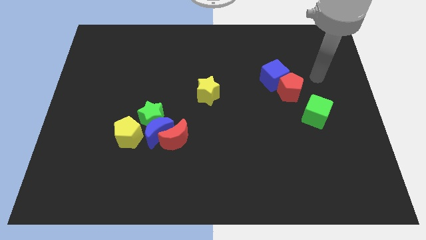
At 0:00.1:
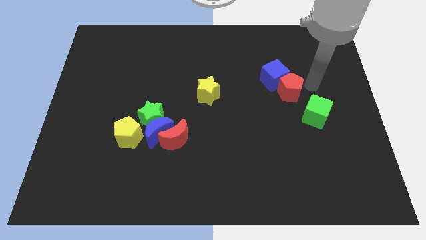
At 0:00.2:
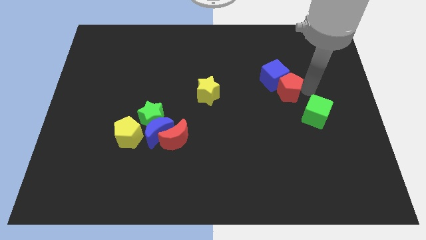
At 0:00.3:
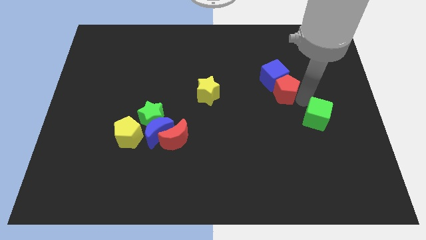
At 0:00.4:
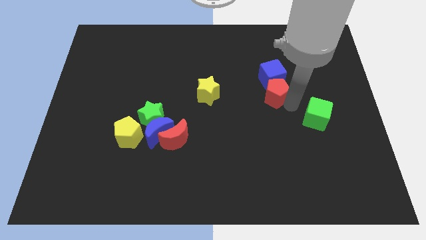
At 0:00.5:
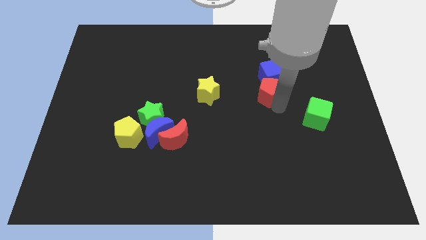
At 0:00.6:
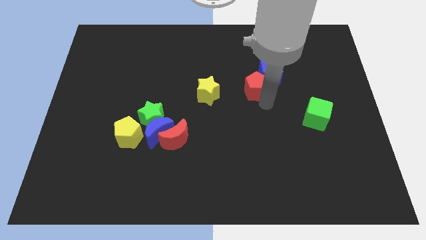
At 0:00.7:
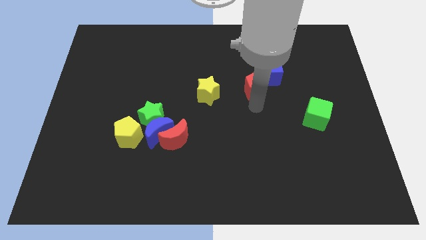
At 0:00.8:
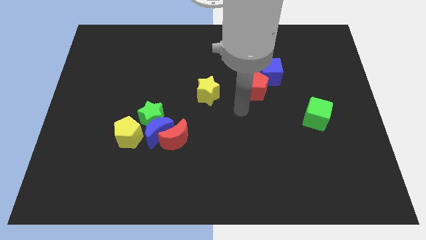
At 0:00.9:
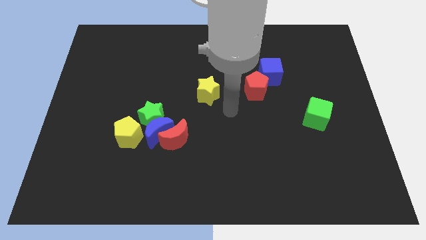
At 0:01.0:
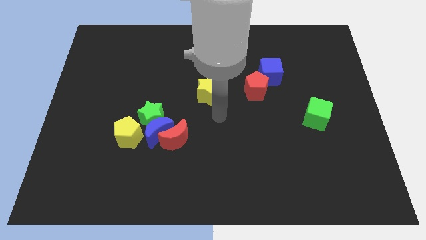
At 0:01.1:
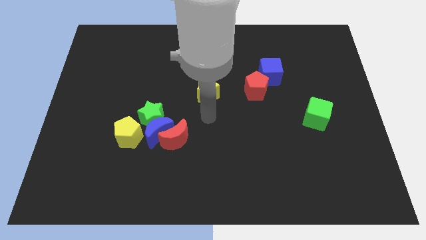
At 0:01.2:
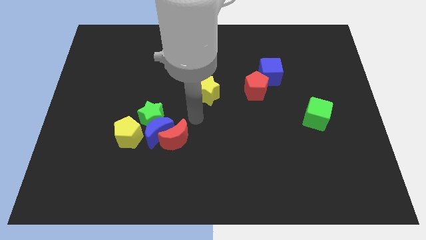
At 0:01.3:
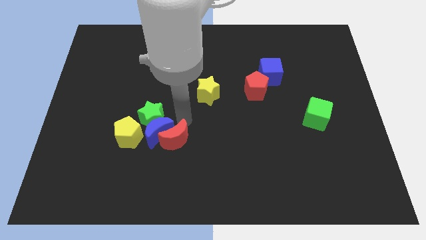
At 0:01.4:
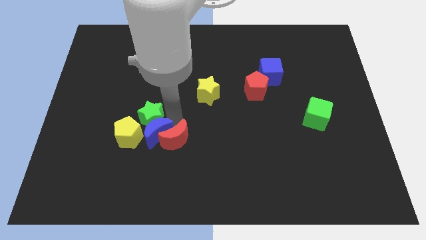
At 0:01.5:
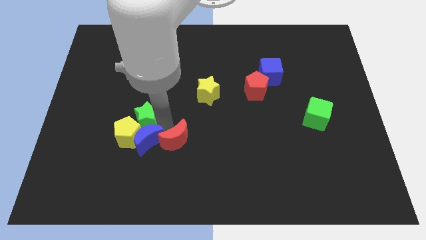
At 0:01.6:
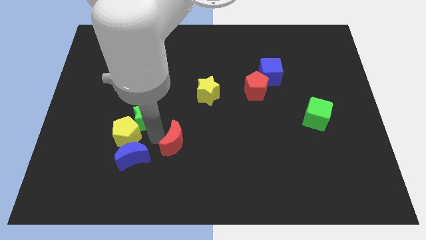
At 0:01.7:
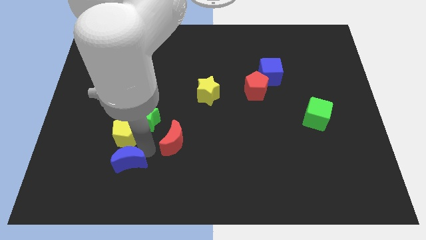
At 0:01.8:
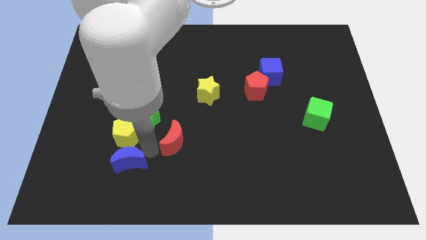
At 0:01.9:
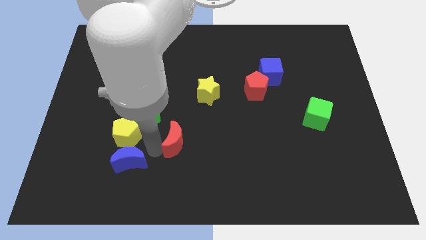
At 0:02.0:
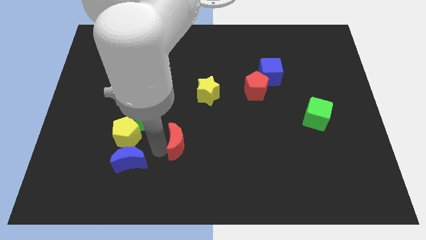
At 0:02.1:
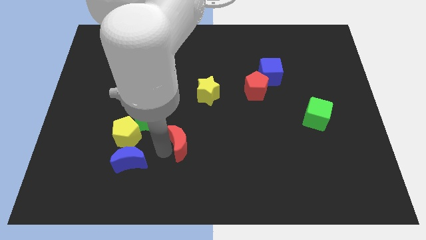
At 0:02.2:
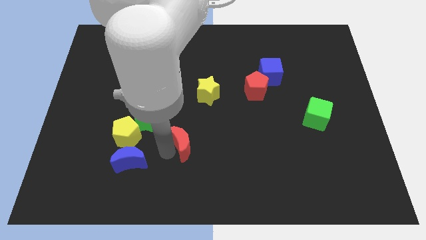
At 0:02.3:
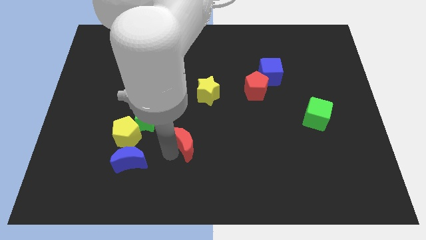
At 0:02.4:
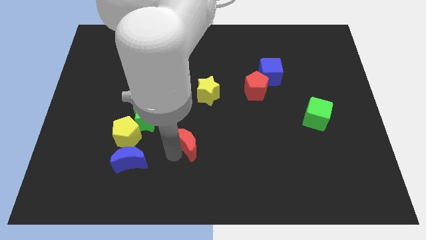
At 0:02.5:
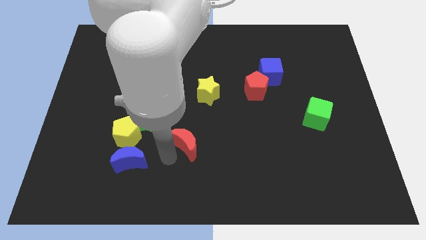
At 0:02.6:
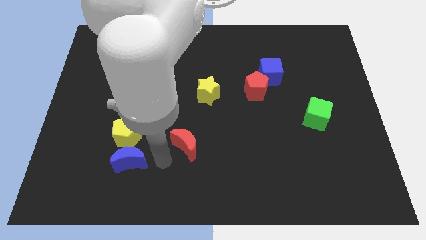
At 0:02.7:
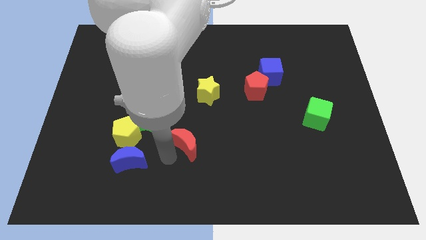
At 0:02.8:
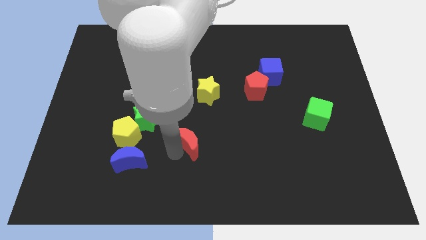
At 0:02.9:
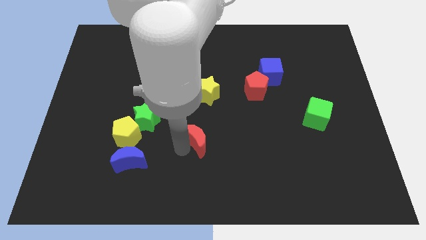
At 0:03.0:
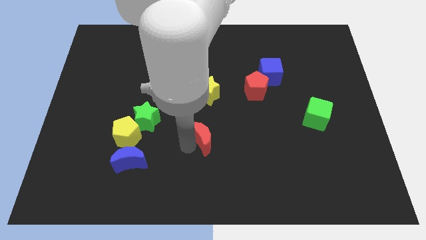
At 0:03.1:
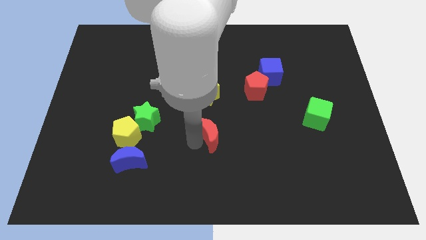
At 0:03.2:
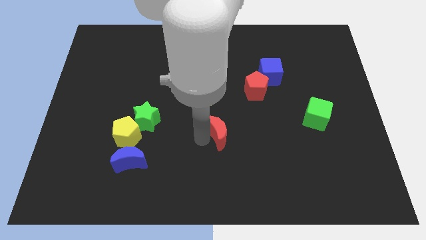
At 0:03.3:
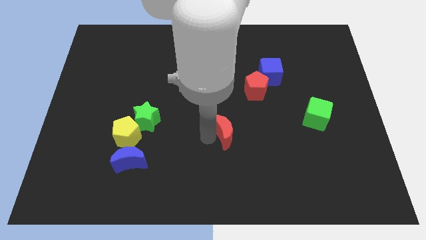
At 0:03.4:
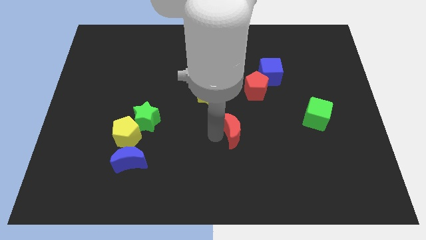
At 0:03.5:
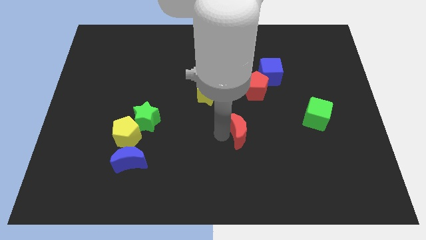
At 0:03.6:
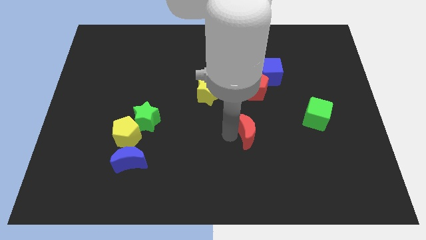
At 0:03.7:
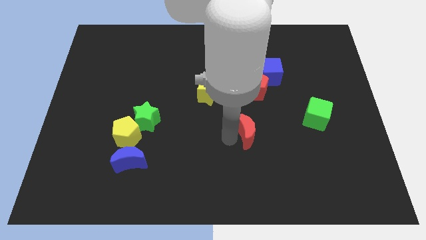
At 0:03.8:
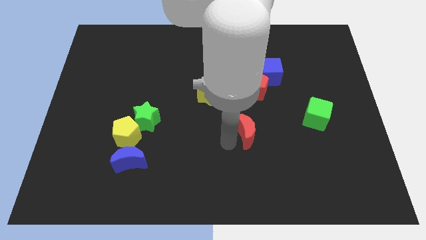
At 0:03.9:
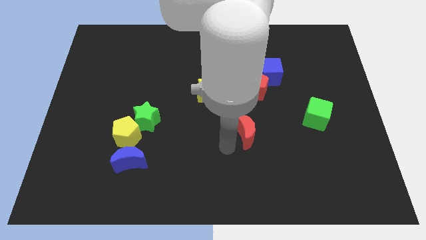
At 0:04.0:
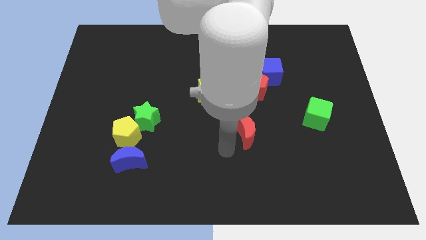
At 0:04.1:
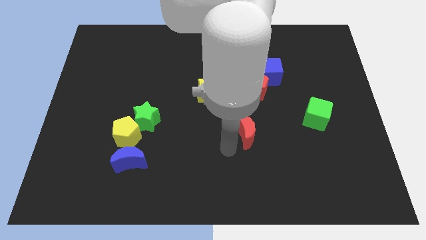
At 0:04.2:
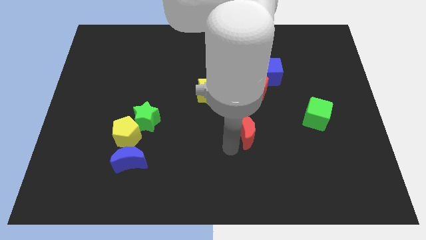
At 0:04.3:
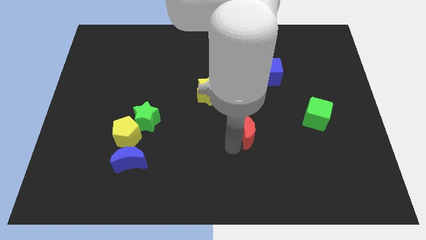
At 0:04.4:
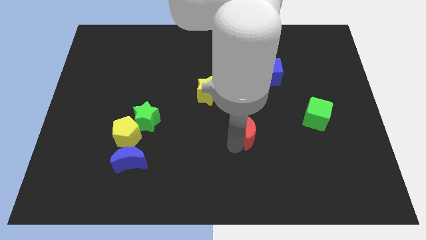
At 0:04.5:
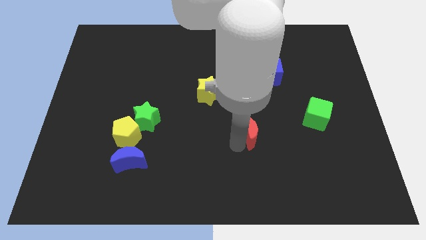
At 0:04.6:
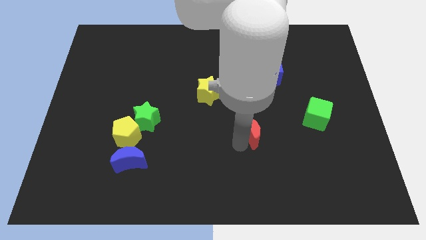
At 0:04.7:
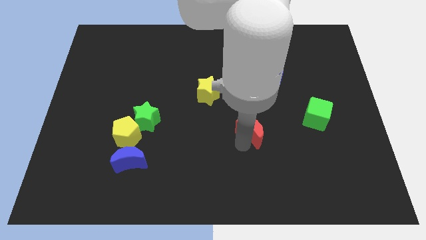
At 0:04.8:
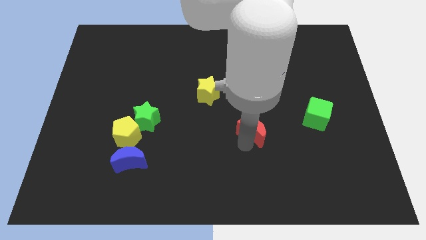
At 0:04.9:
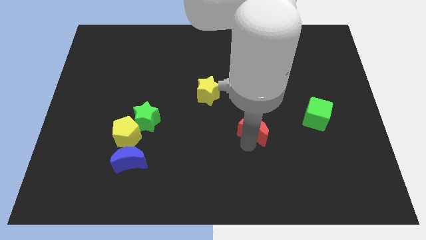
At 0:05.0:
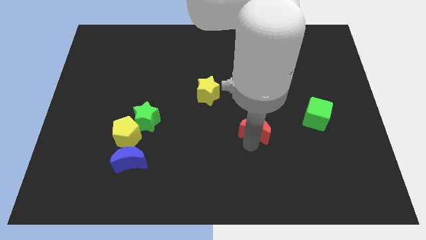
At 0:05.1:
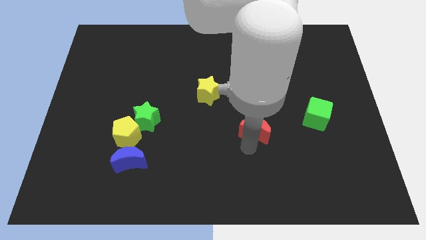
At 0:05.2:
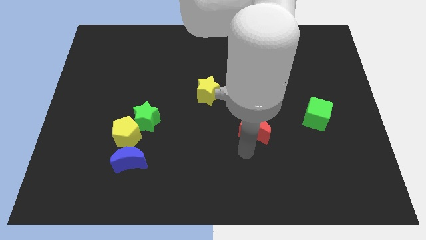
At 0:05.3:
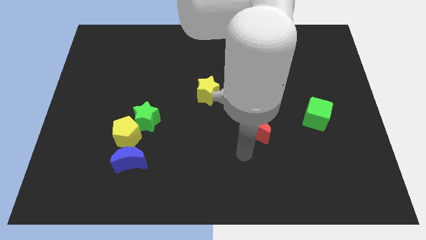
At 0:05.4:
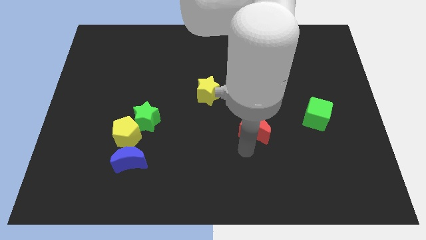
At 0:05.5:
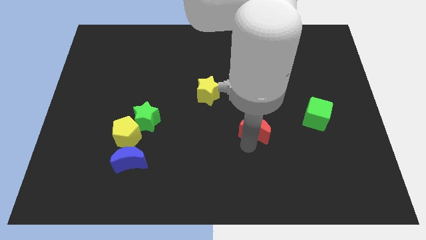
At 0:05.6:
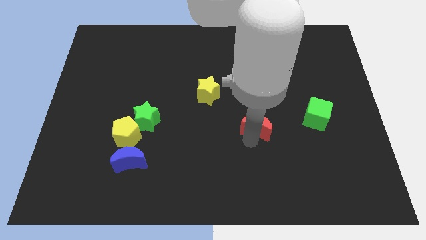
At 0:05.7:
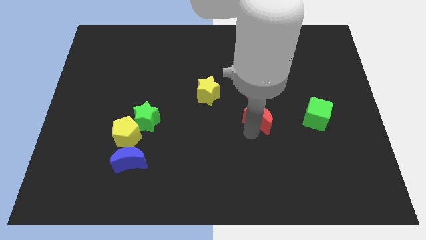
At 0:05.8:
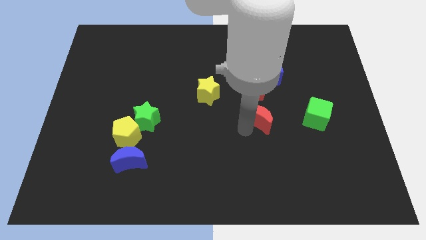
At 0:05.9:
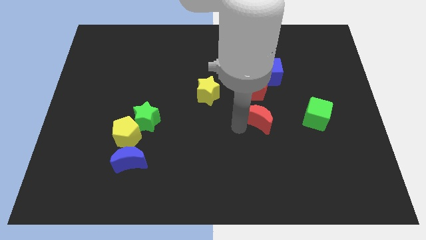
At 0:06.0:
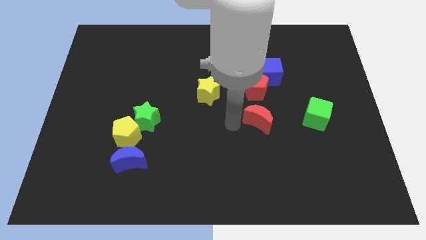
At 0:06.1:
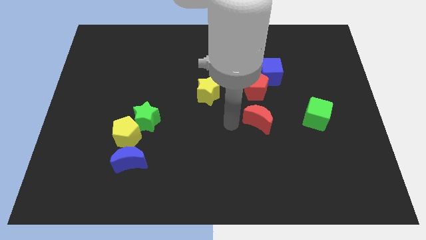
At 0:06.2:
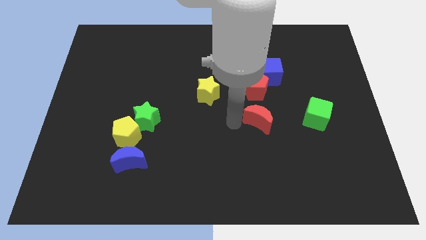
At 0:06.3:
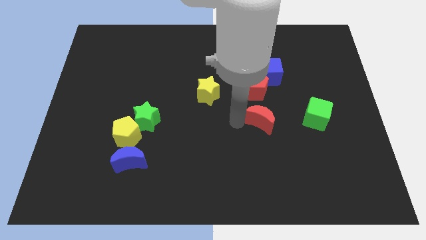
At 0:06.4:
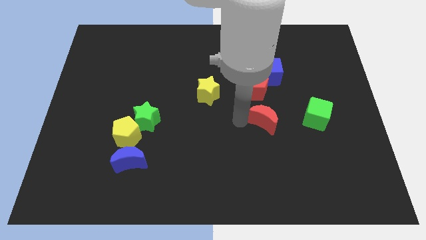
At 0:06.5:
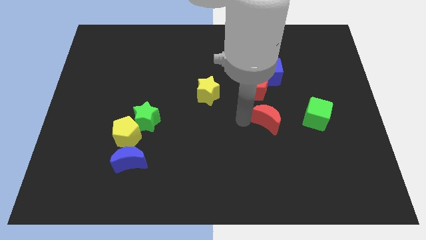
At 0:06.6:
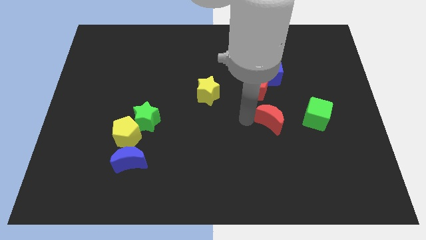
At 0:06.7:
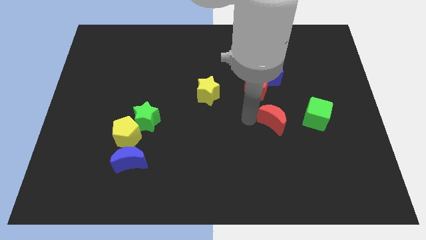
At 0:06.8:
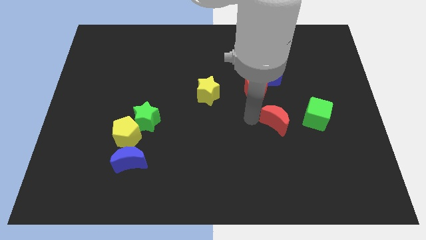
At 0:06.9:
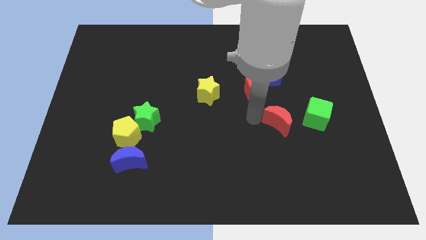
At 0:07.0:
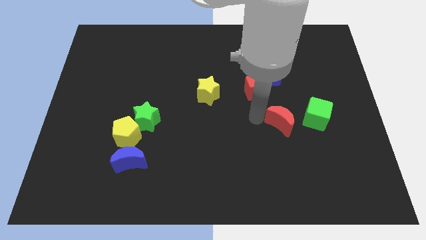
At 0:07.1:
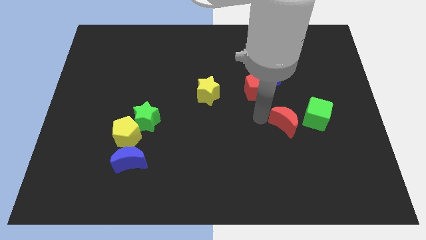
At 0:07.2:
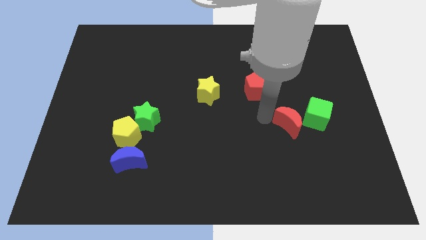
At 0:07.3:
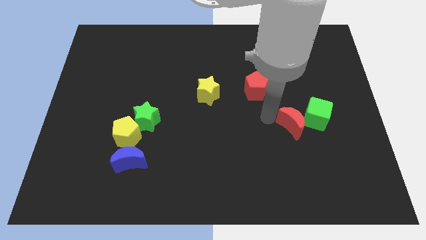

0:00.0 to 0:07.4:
put the red moon to the green cube
